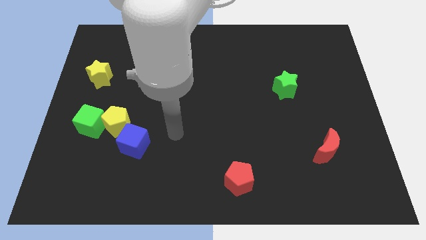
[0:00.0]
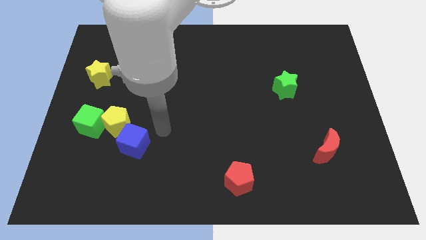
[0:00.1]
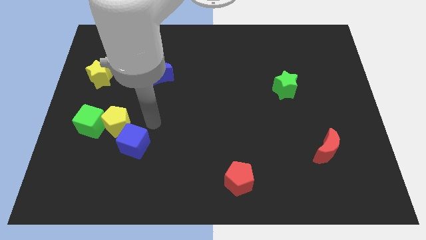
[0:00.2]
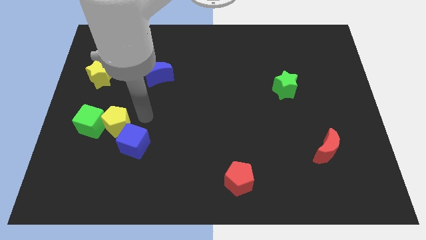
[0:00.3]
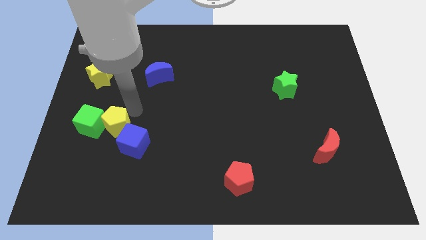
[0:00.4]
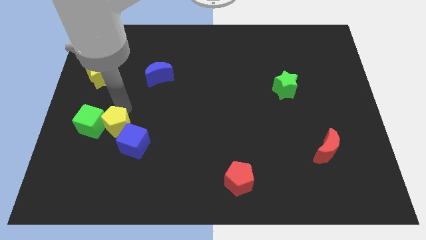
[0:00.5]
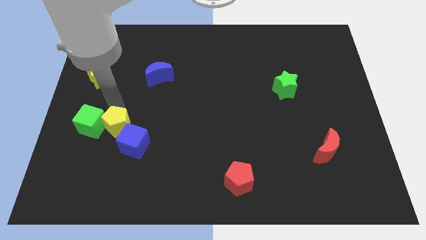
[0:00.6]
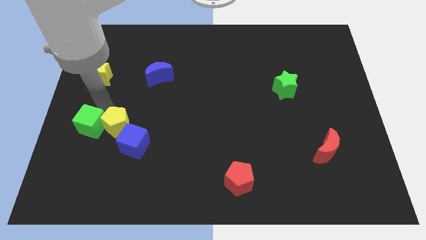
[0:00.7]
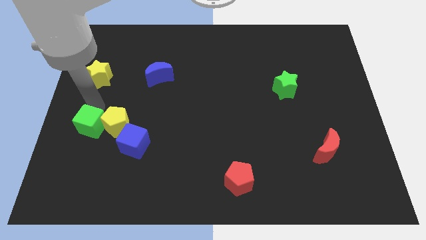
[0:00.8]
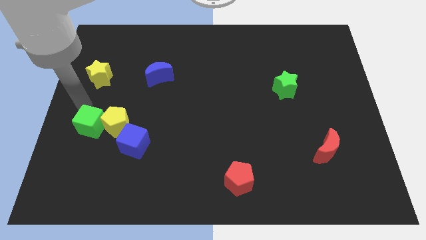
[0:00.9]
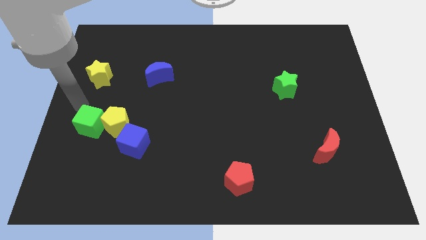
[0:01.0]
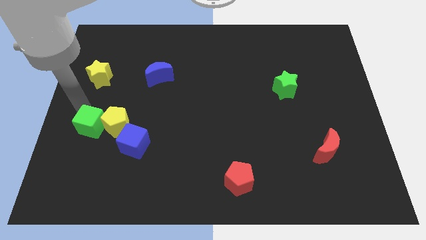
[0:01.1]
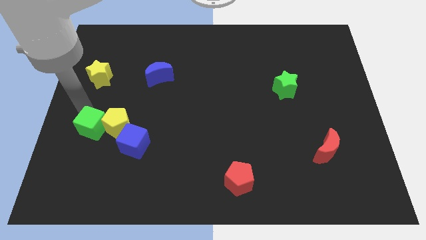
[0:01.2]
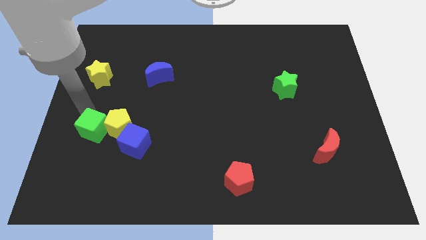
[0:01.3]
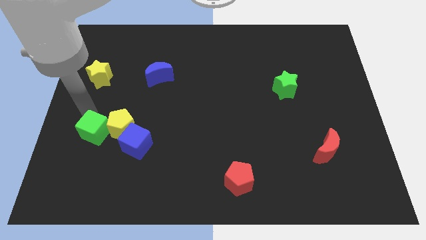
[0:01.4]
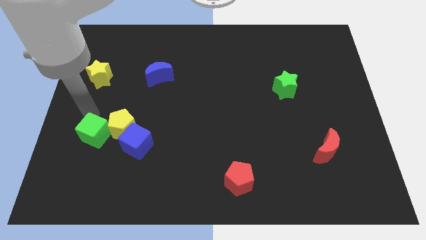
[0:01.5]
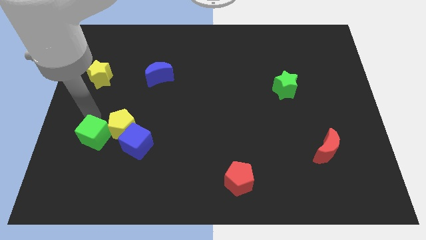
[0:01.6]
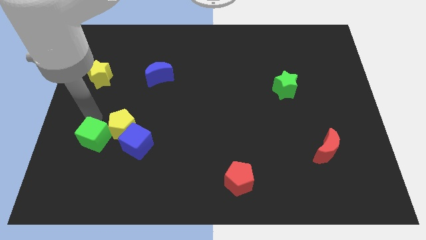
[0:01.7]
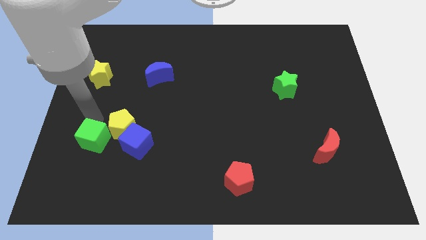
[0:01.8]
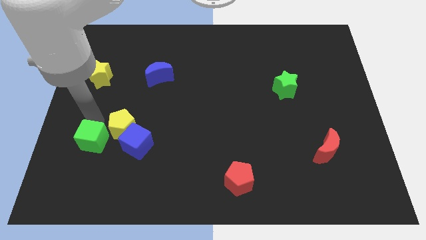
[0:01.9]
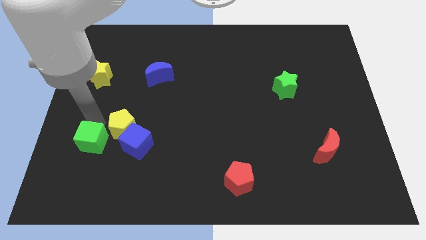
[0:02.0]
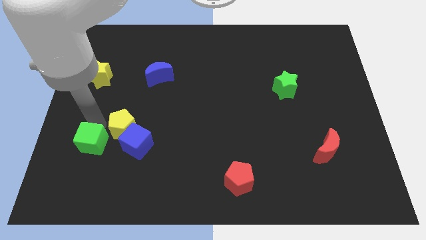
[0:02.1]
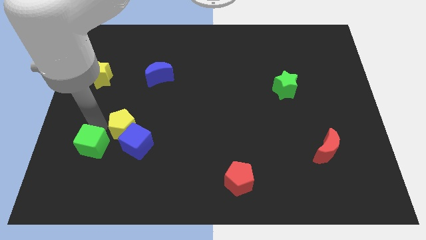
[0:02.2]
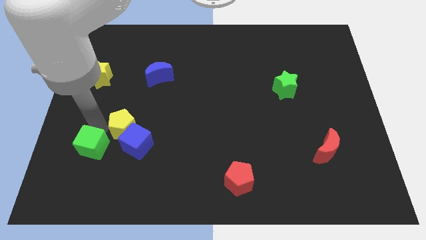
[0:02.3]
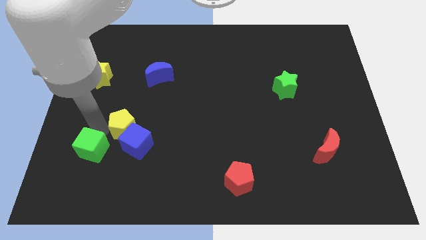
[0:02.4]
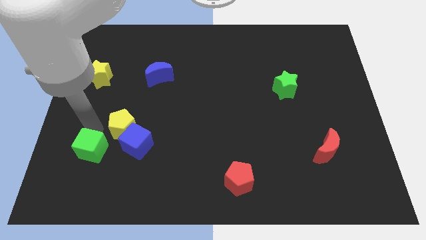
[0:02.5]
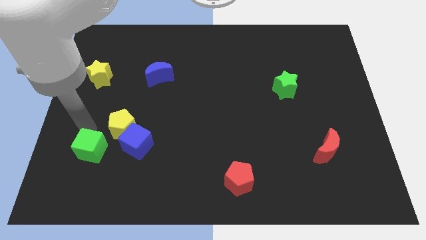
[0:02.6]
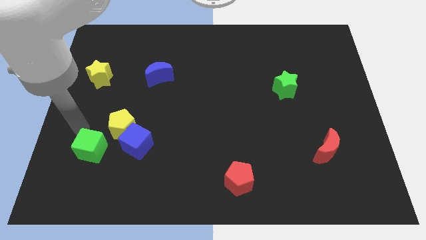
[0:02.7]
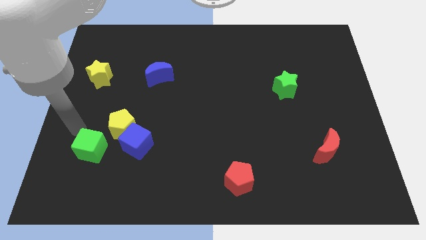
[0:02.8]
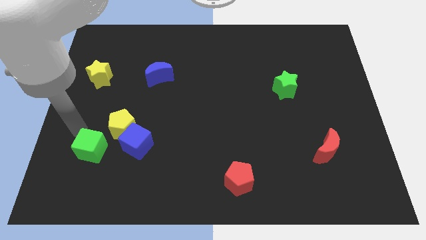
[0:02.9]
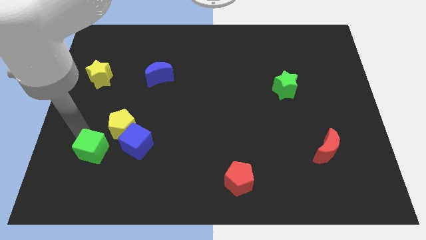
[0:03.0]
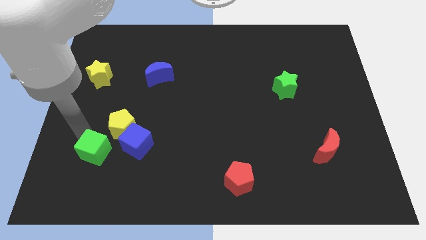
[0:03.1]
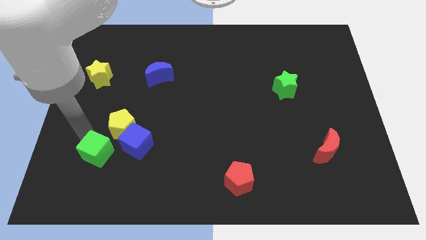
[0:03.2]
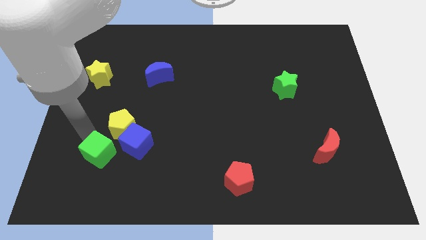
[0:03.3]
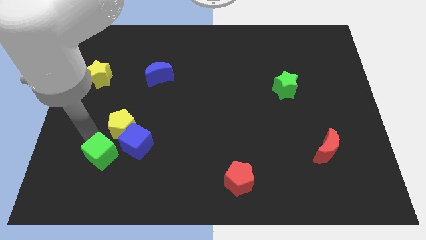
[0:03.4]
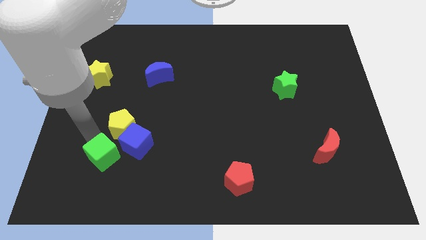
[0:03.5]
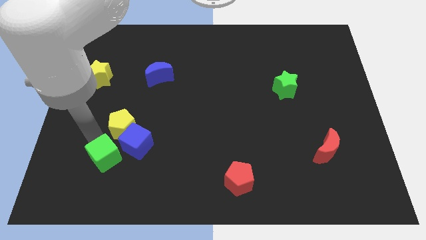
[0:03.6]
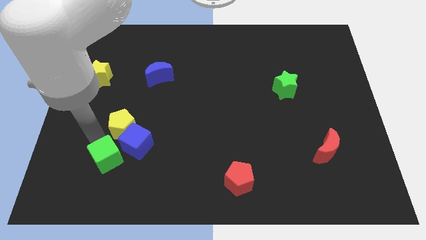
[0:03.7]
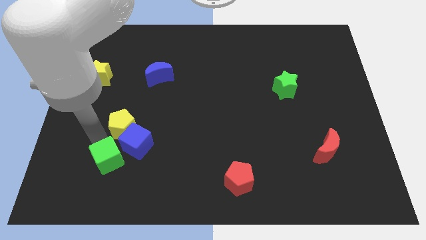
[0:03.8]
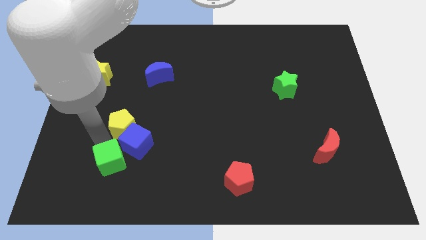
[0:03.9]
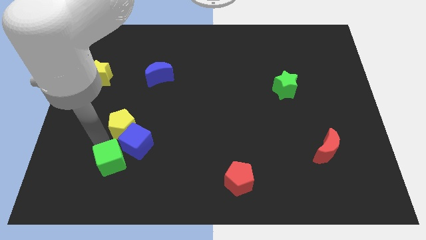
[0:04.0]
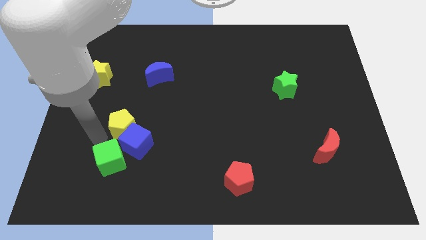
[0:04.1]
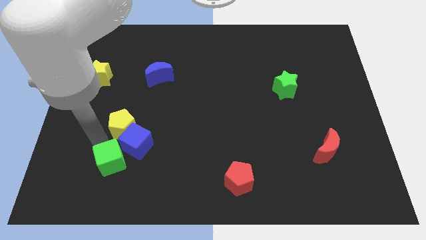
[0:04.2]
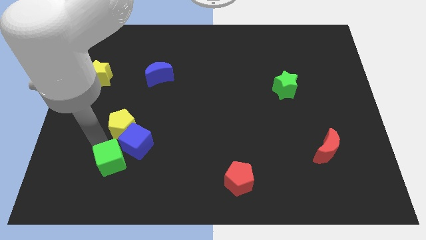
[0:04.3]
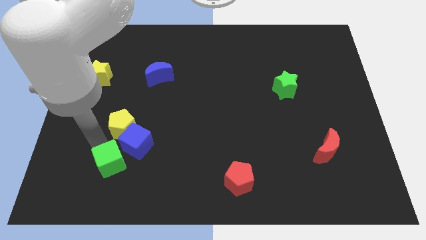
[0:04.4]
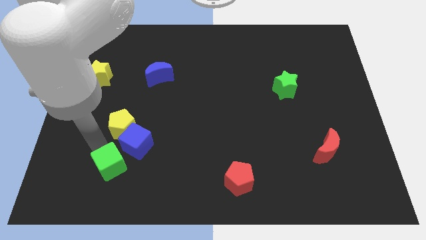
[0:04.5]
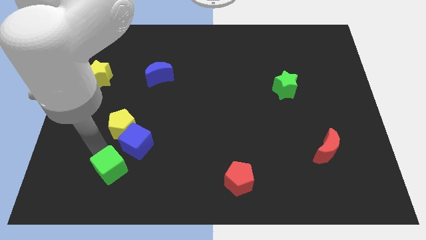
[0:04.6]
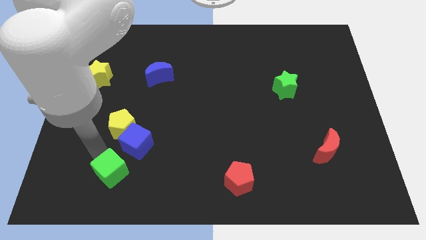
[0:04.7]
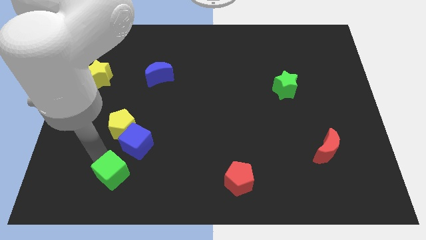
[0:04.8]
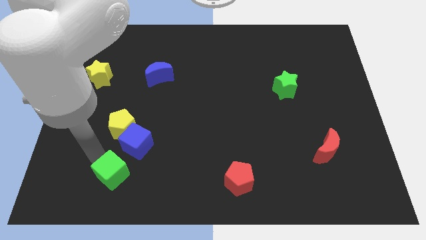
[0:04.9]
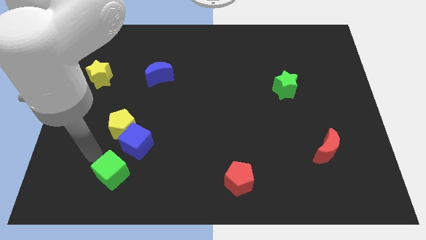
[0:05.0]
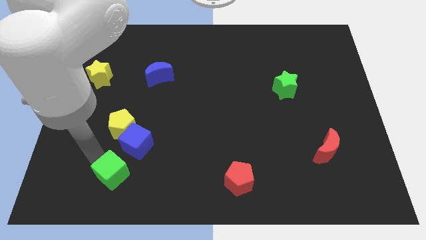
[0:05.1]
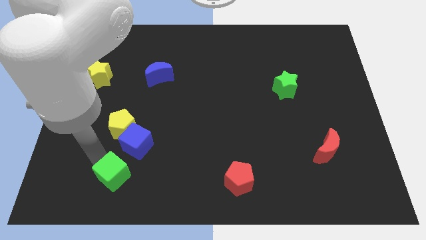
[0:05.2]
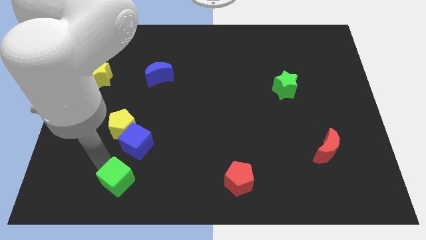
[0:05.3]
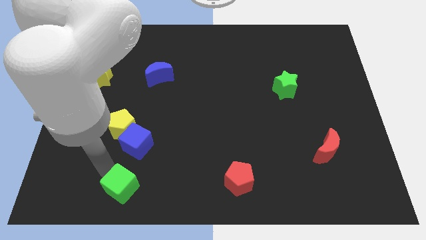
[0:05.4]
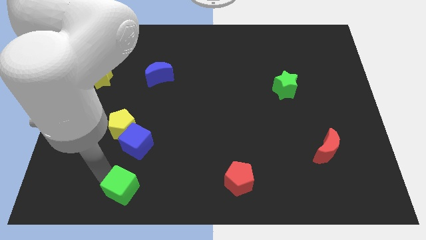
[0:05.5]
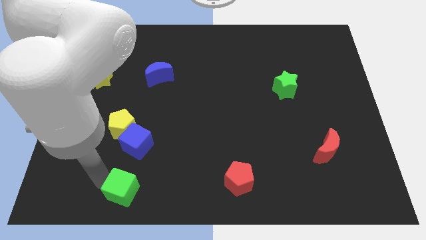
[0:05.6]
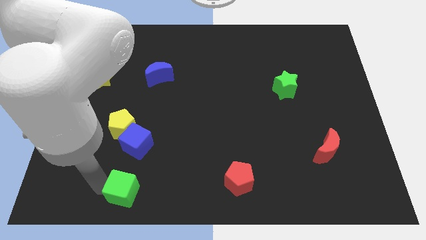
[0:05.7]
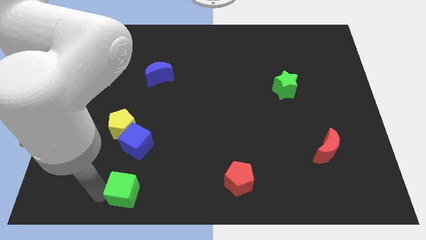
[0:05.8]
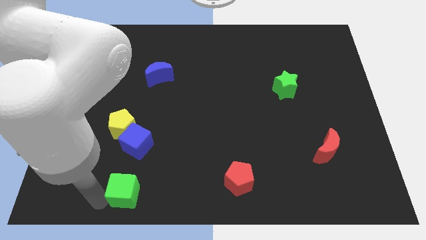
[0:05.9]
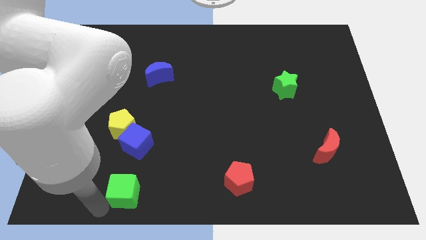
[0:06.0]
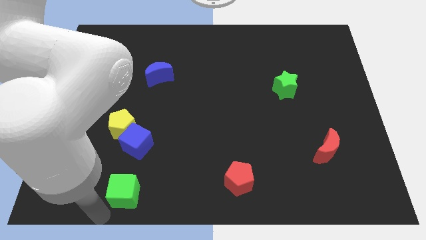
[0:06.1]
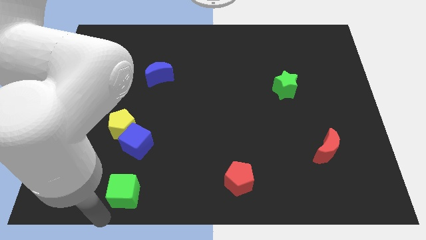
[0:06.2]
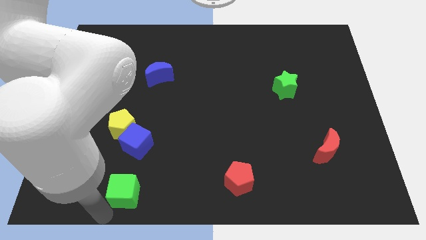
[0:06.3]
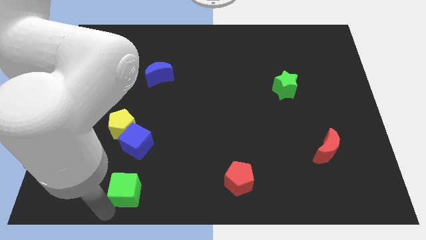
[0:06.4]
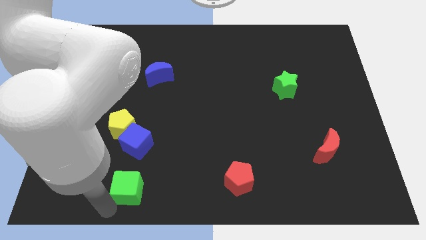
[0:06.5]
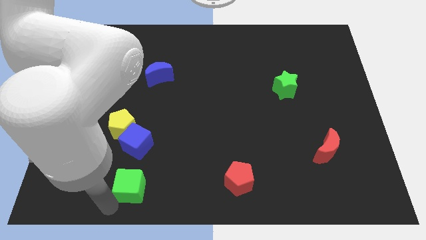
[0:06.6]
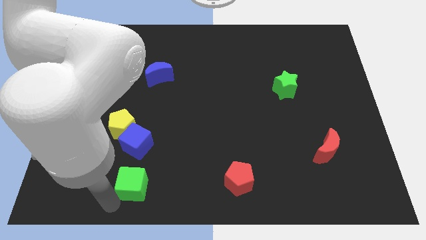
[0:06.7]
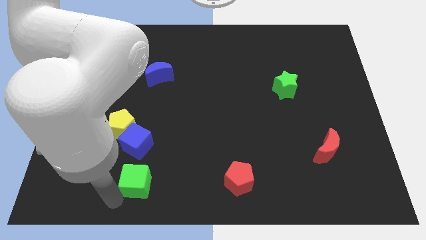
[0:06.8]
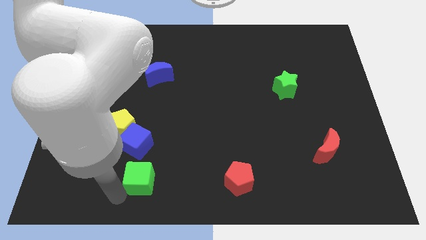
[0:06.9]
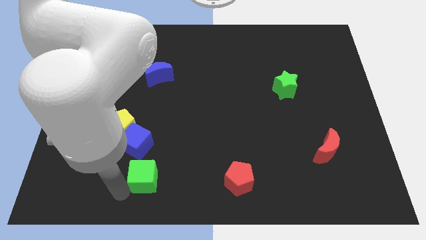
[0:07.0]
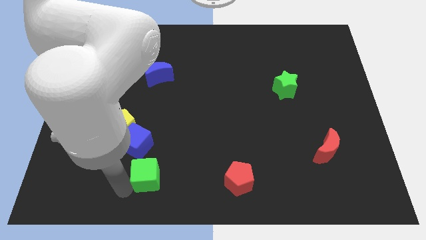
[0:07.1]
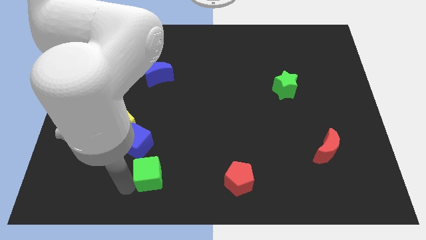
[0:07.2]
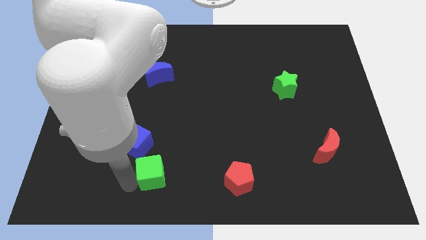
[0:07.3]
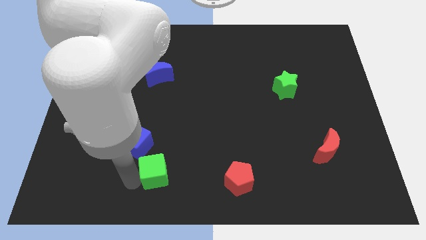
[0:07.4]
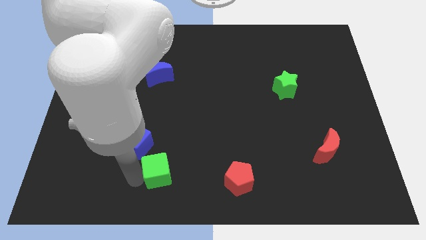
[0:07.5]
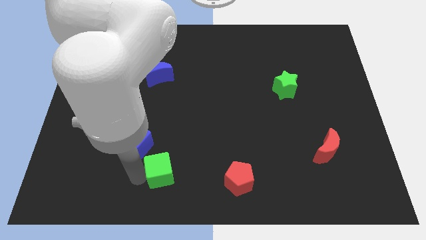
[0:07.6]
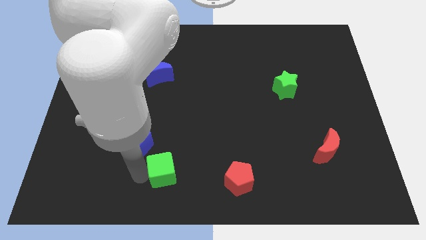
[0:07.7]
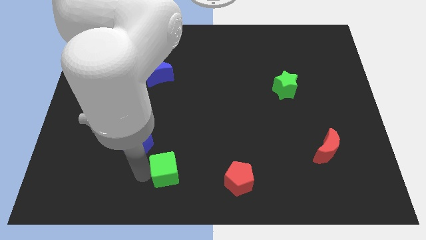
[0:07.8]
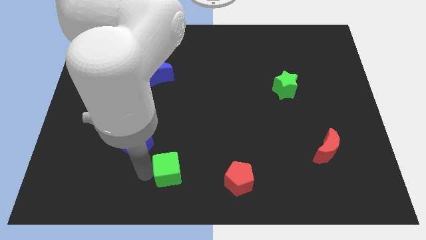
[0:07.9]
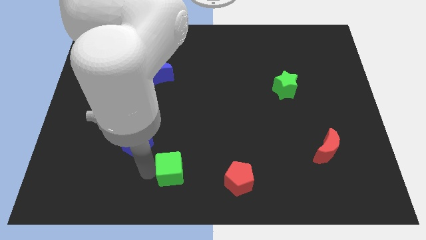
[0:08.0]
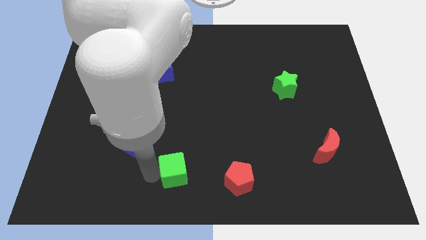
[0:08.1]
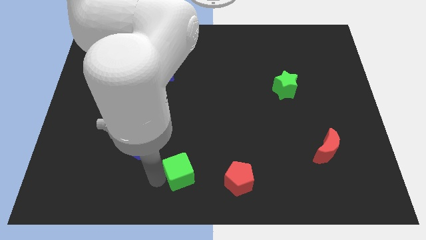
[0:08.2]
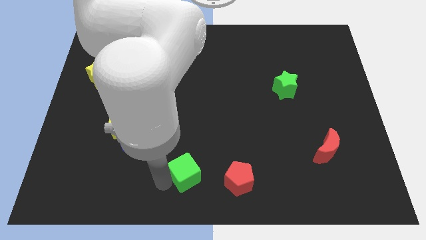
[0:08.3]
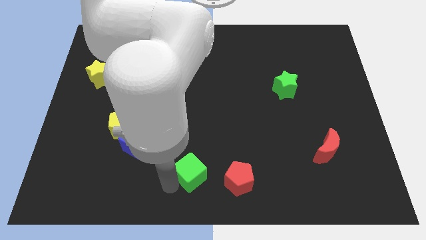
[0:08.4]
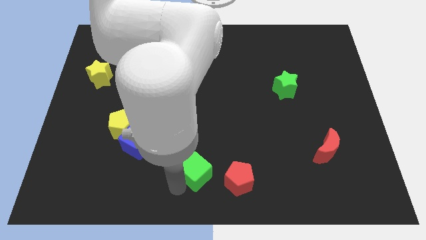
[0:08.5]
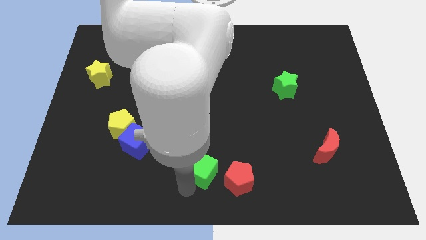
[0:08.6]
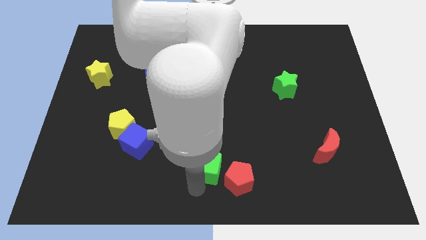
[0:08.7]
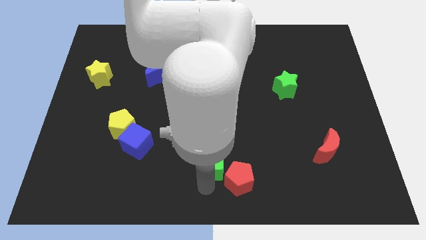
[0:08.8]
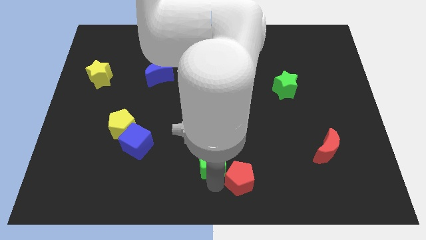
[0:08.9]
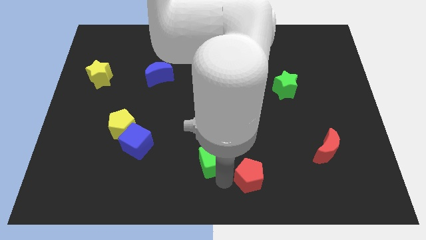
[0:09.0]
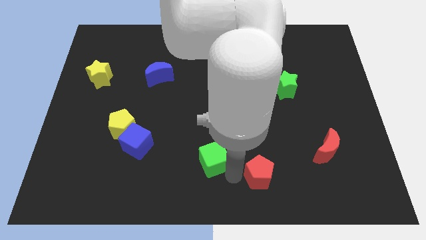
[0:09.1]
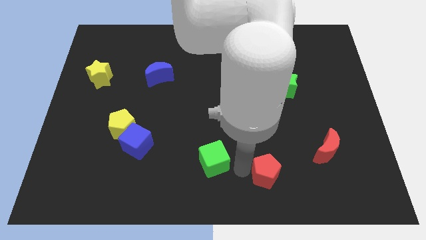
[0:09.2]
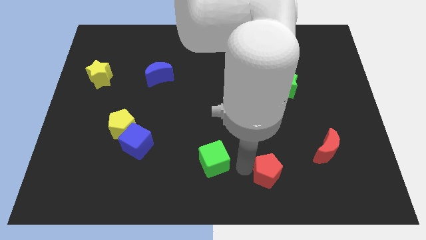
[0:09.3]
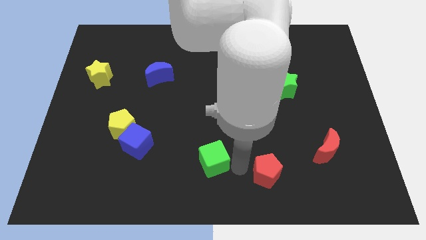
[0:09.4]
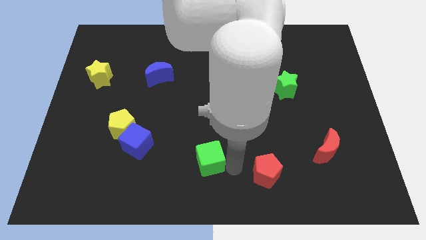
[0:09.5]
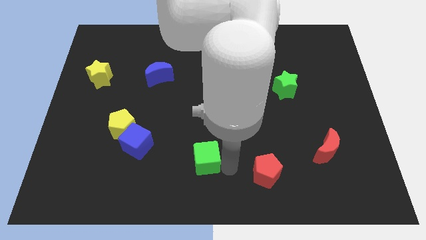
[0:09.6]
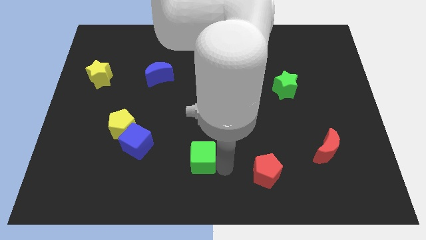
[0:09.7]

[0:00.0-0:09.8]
move the green cube just right of the blue cube
